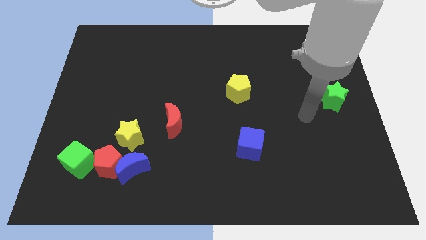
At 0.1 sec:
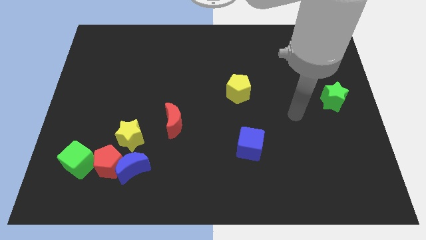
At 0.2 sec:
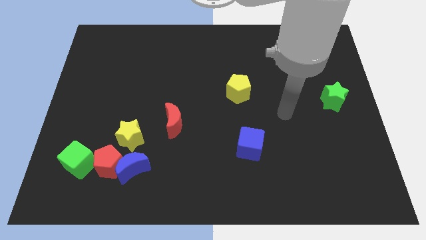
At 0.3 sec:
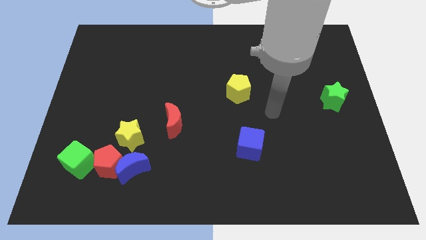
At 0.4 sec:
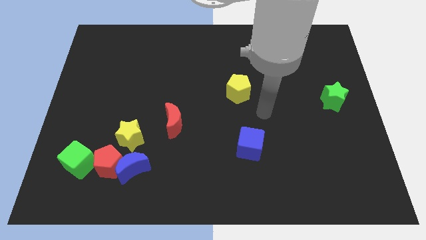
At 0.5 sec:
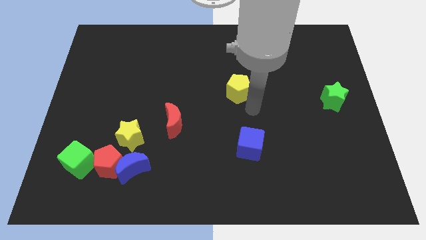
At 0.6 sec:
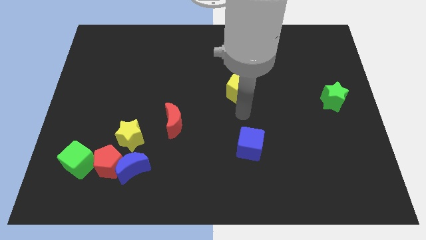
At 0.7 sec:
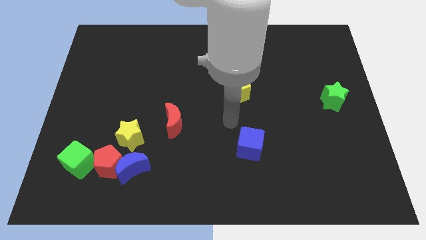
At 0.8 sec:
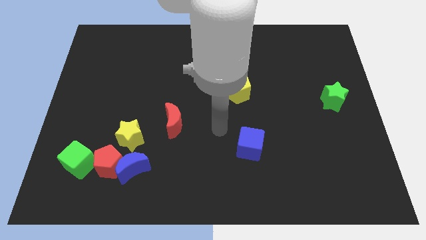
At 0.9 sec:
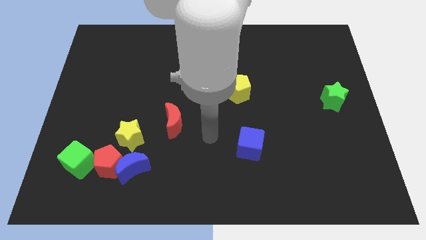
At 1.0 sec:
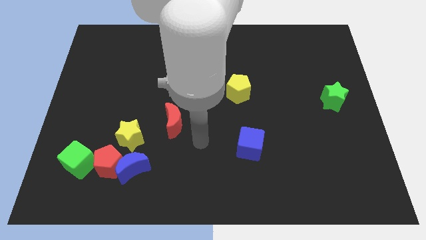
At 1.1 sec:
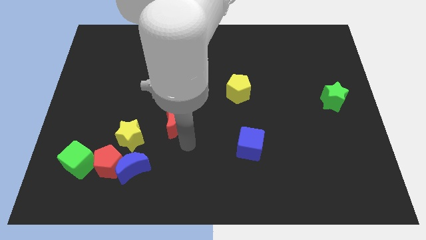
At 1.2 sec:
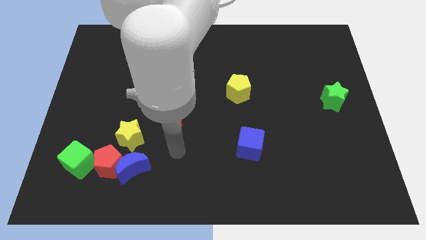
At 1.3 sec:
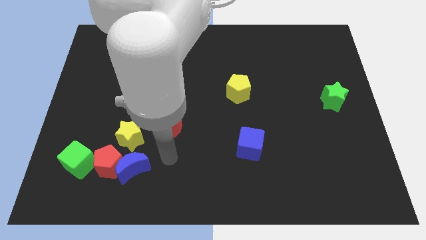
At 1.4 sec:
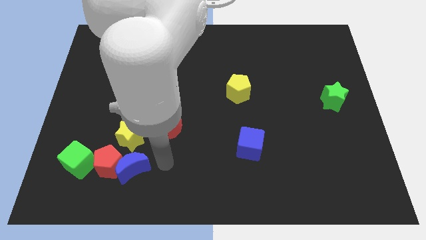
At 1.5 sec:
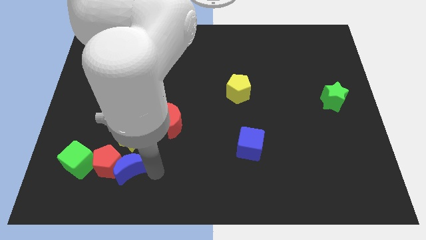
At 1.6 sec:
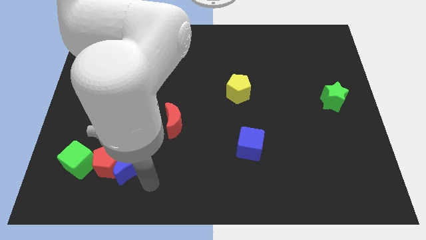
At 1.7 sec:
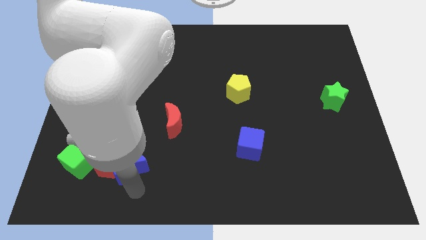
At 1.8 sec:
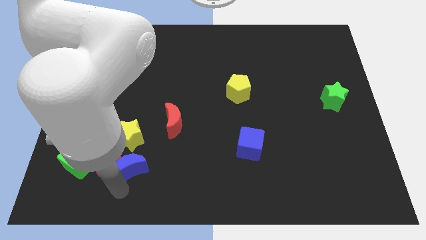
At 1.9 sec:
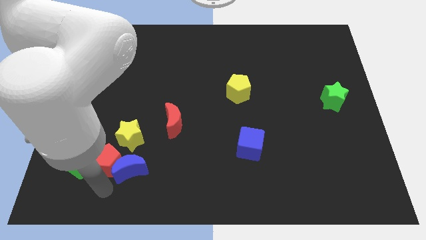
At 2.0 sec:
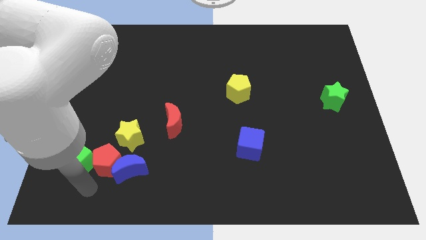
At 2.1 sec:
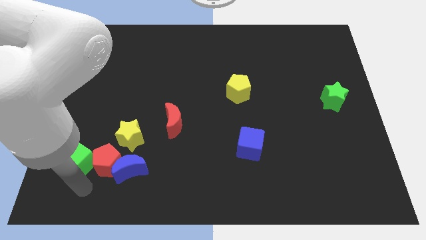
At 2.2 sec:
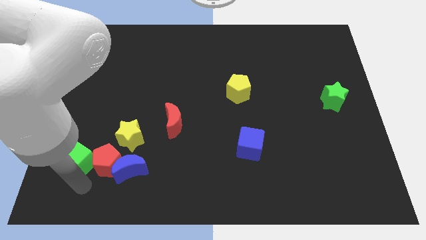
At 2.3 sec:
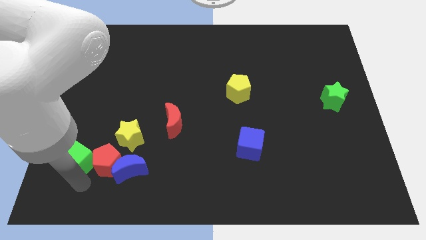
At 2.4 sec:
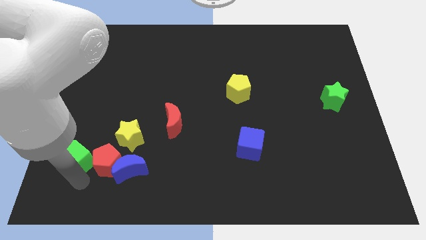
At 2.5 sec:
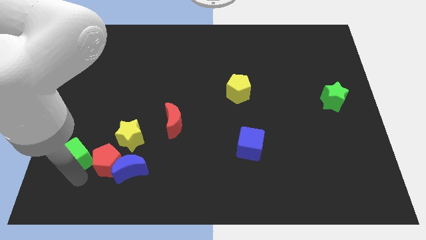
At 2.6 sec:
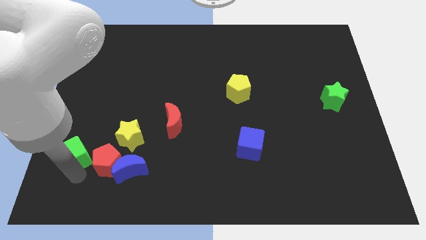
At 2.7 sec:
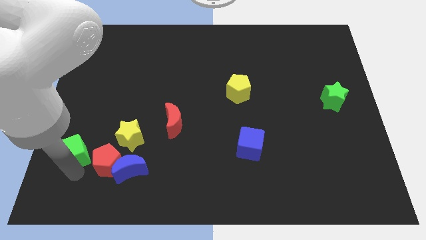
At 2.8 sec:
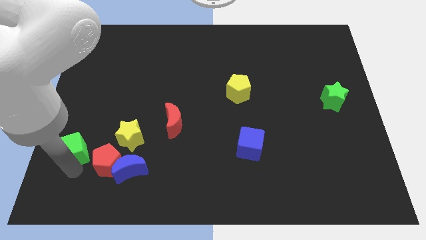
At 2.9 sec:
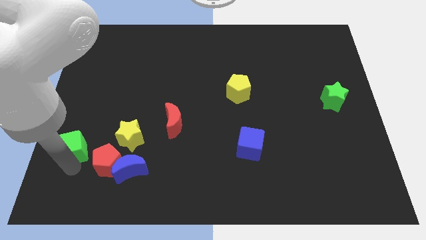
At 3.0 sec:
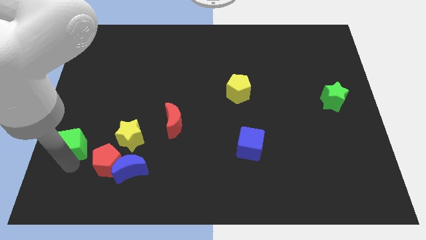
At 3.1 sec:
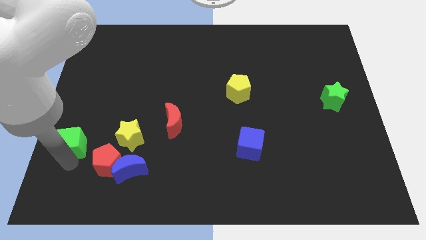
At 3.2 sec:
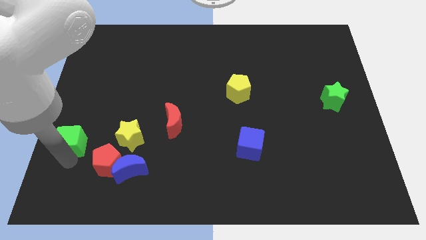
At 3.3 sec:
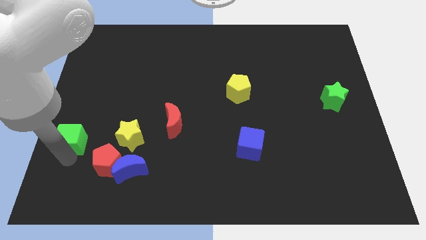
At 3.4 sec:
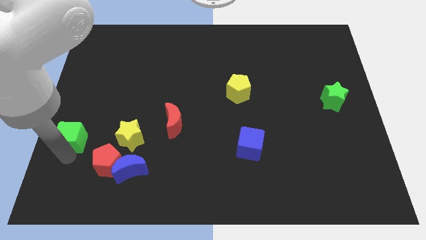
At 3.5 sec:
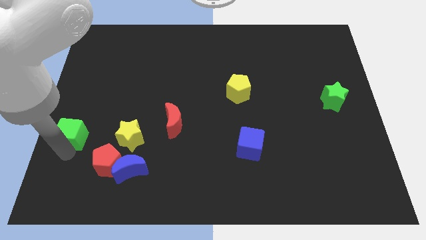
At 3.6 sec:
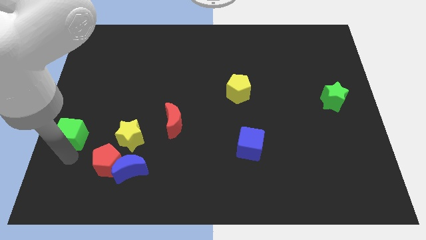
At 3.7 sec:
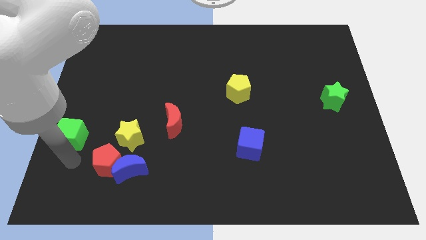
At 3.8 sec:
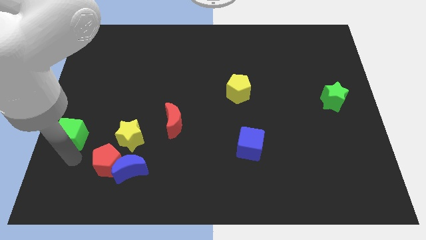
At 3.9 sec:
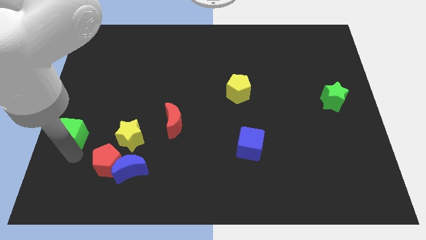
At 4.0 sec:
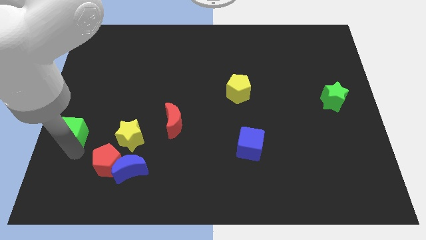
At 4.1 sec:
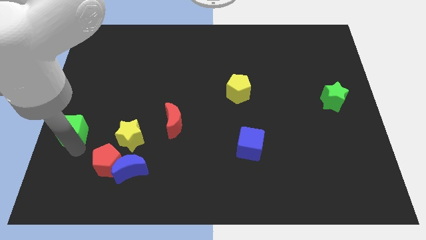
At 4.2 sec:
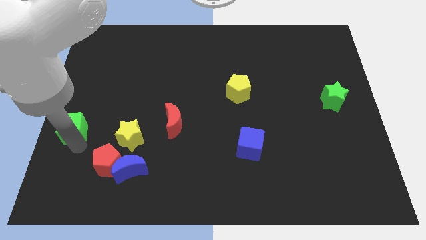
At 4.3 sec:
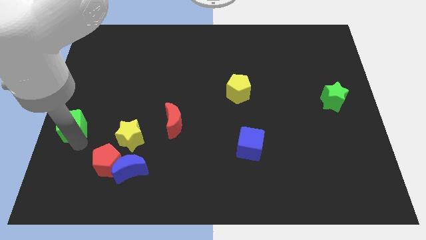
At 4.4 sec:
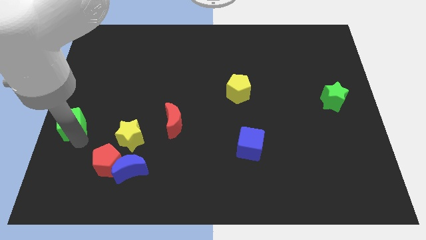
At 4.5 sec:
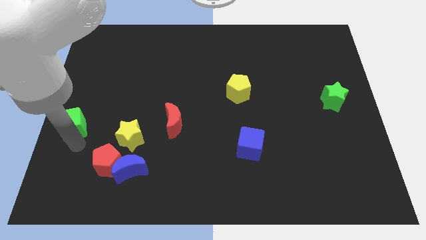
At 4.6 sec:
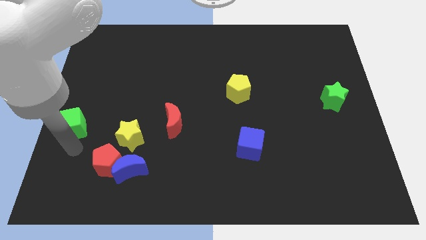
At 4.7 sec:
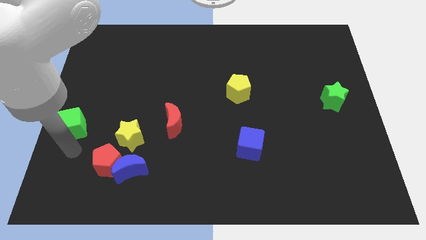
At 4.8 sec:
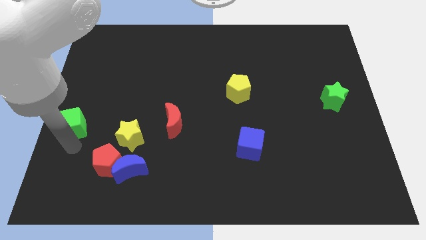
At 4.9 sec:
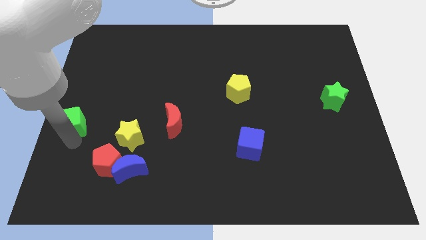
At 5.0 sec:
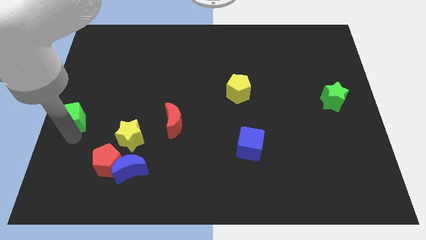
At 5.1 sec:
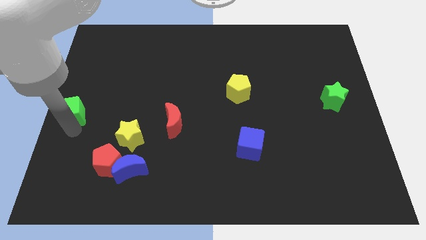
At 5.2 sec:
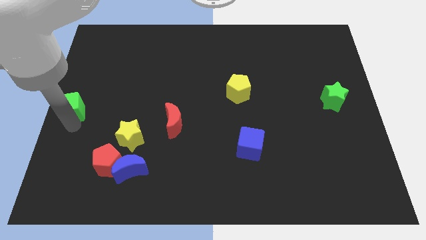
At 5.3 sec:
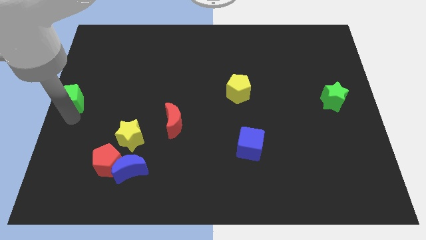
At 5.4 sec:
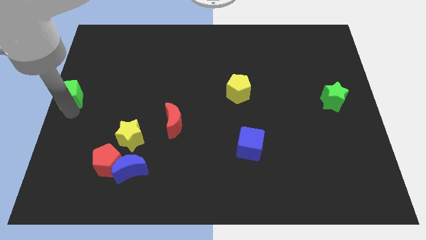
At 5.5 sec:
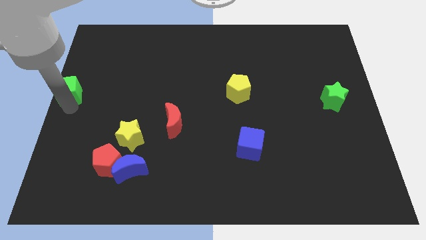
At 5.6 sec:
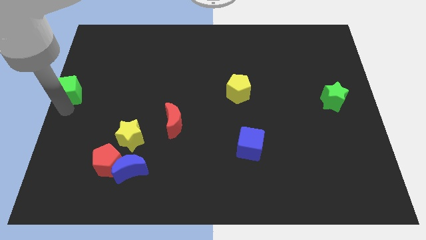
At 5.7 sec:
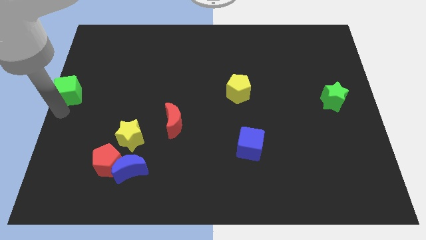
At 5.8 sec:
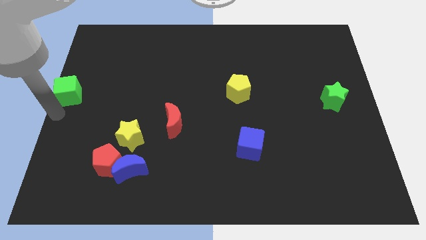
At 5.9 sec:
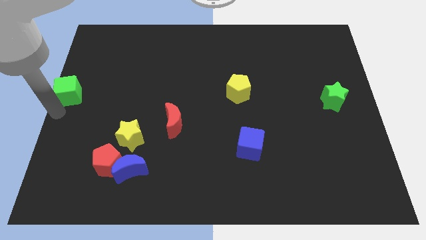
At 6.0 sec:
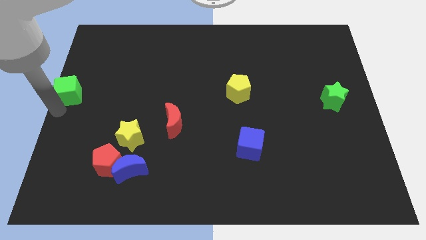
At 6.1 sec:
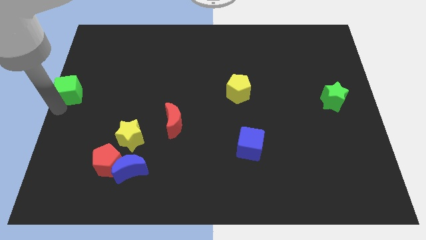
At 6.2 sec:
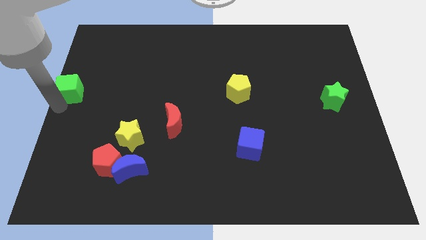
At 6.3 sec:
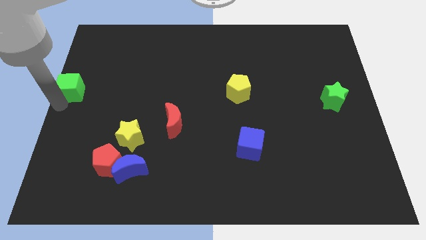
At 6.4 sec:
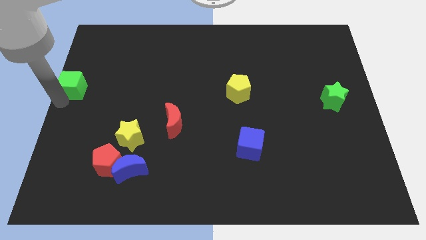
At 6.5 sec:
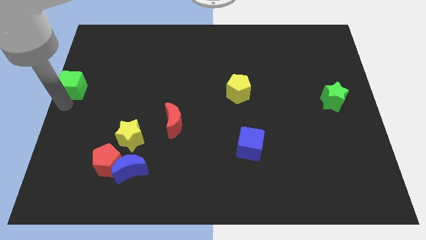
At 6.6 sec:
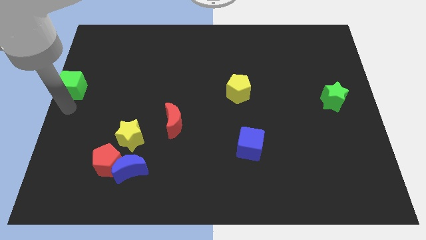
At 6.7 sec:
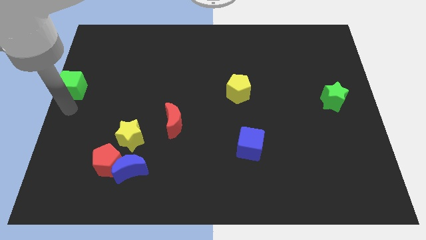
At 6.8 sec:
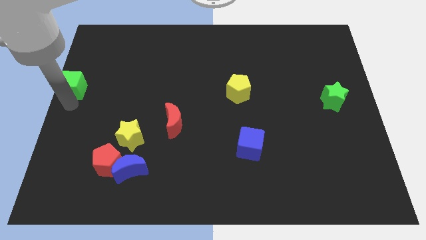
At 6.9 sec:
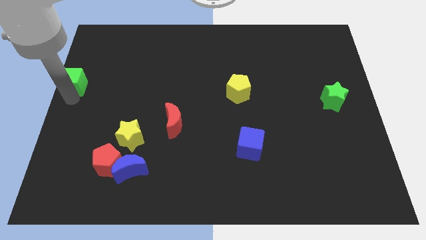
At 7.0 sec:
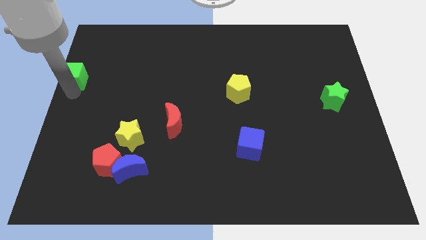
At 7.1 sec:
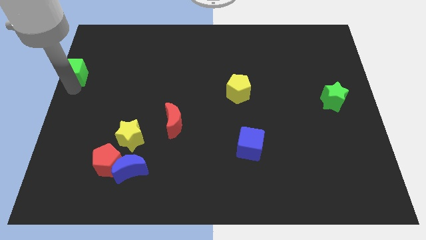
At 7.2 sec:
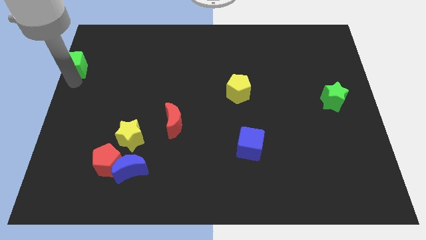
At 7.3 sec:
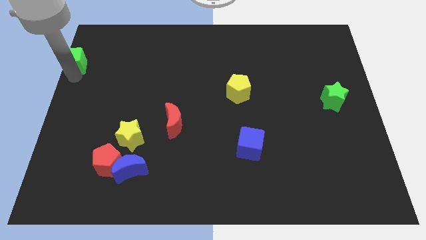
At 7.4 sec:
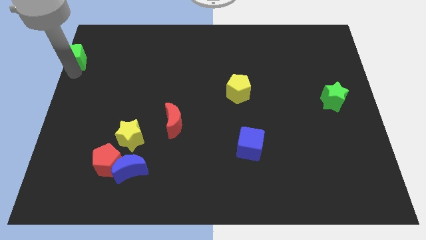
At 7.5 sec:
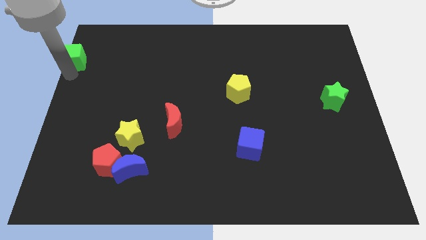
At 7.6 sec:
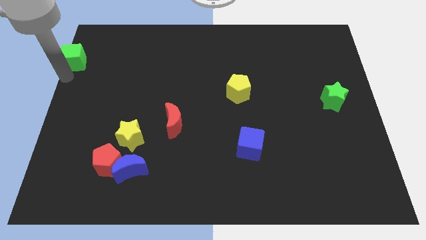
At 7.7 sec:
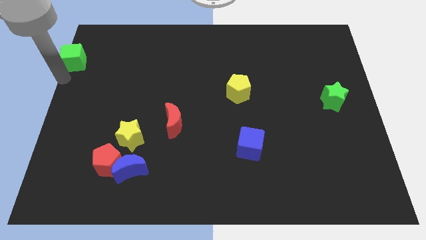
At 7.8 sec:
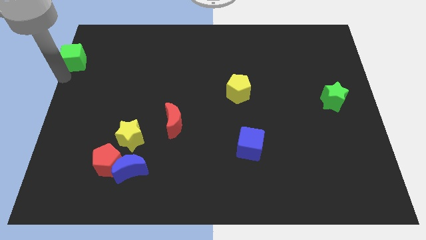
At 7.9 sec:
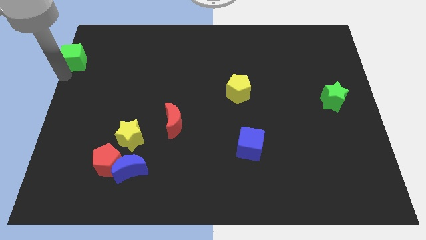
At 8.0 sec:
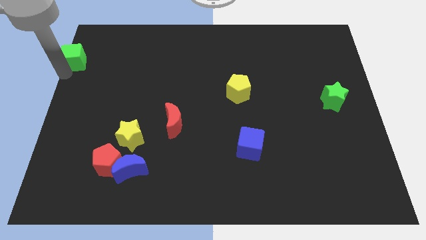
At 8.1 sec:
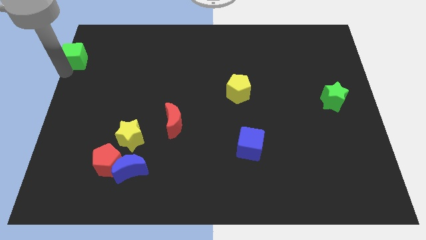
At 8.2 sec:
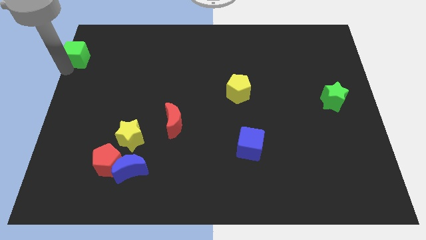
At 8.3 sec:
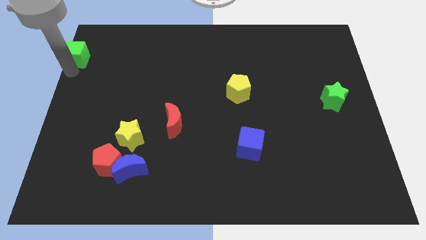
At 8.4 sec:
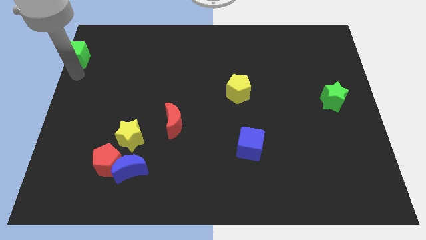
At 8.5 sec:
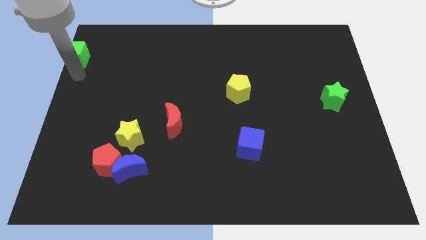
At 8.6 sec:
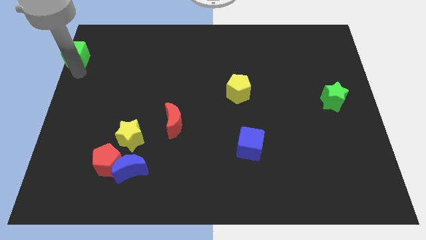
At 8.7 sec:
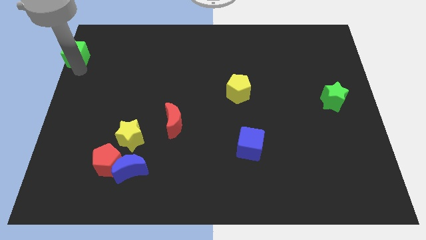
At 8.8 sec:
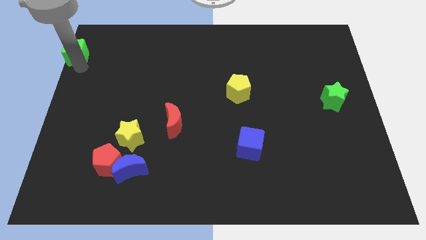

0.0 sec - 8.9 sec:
put the green cube to the top left corner
